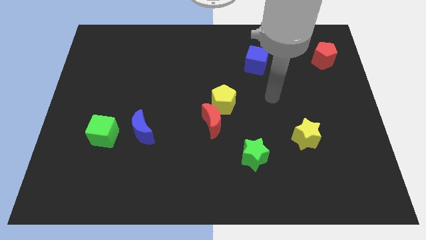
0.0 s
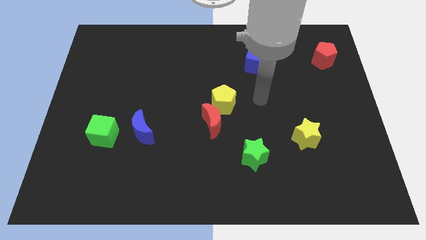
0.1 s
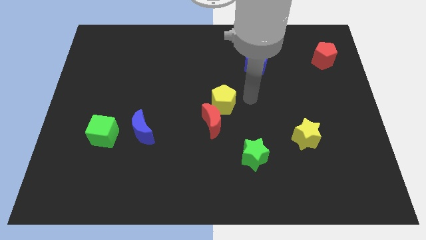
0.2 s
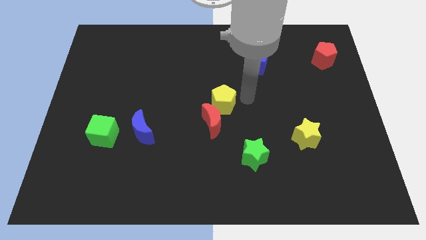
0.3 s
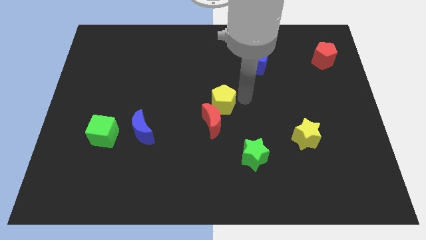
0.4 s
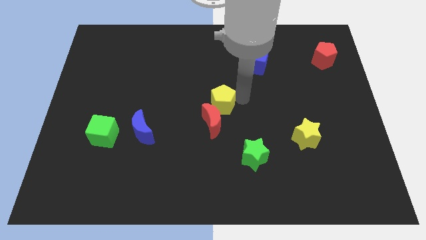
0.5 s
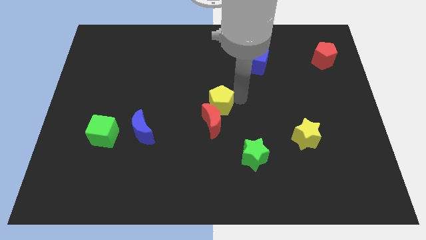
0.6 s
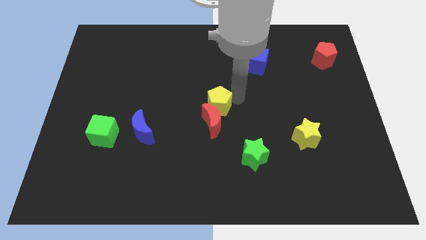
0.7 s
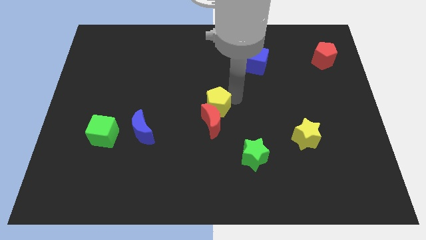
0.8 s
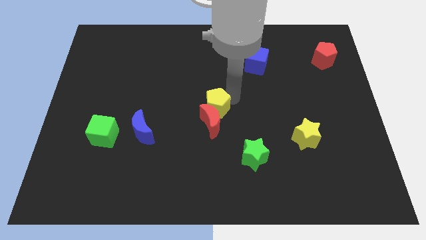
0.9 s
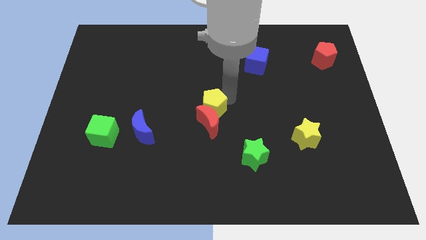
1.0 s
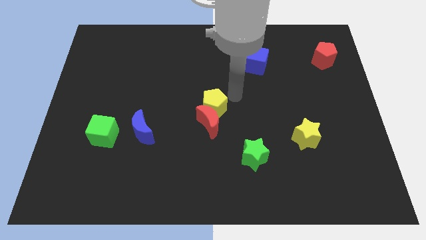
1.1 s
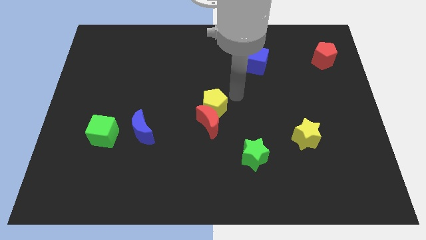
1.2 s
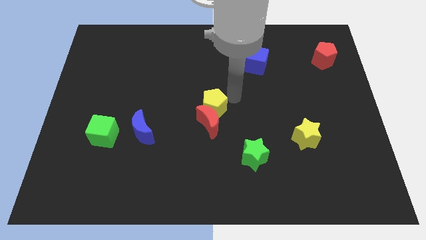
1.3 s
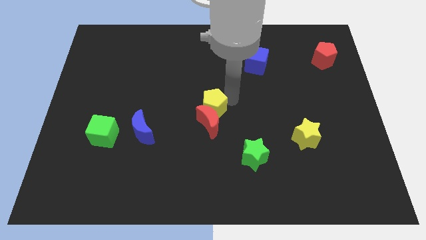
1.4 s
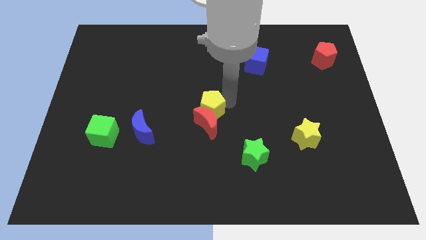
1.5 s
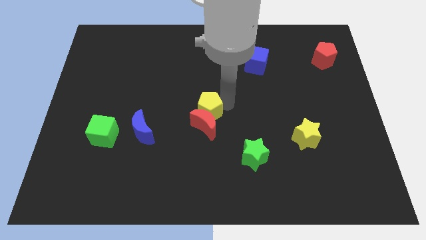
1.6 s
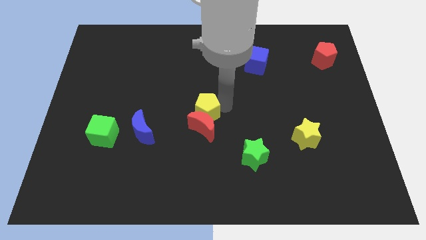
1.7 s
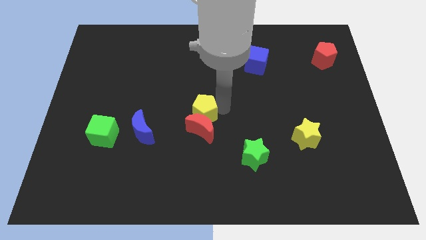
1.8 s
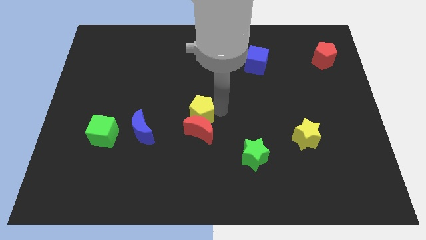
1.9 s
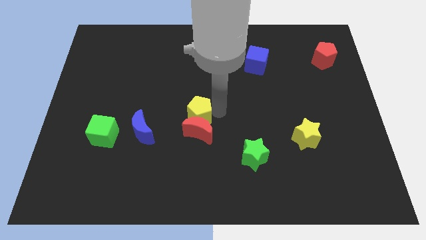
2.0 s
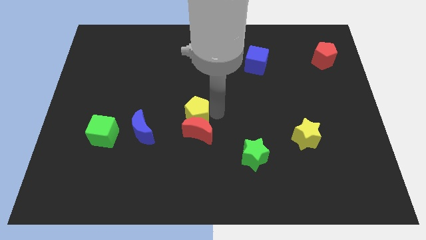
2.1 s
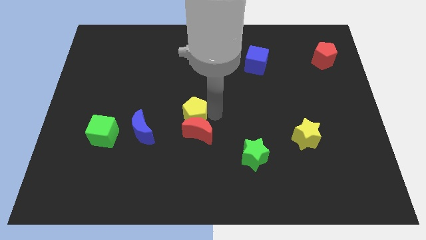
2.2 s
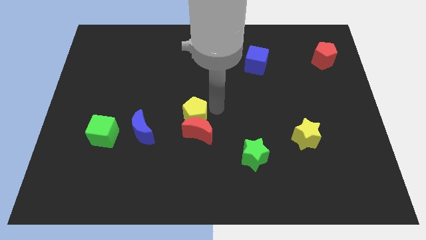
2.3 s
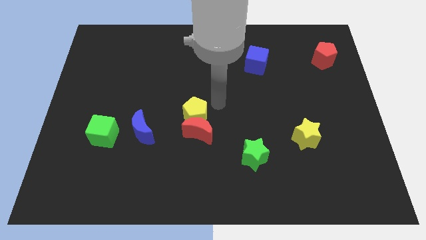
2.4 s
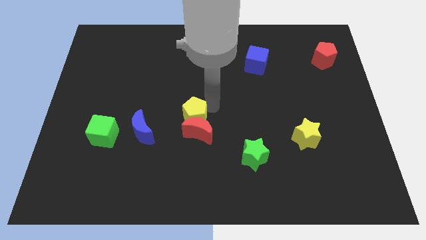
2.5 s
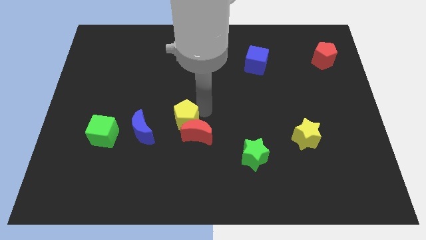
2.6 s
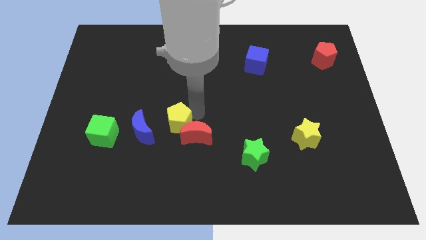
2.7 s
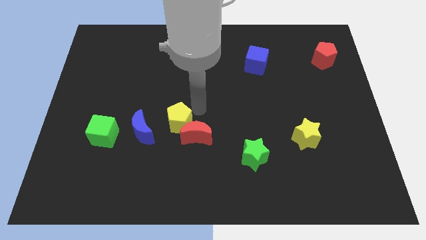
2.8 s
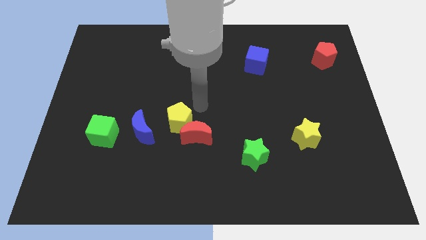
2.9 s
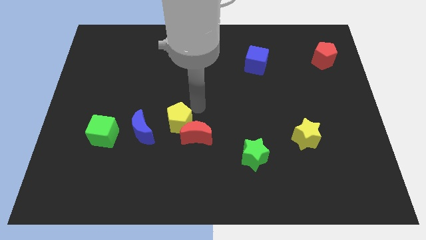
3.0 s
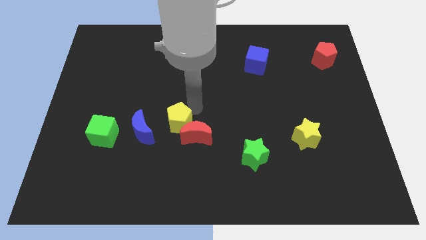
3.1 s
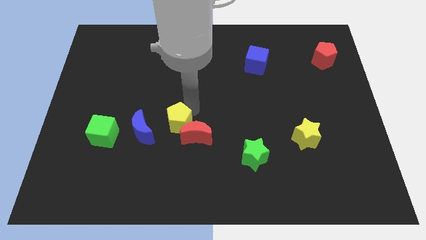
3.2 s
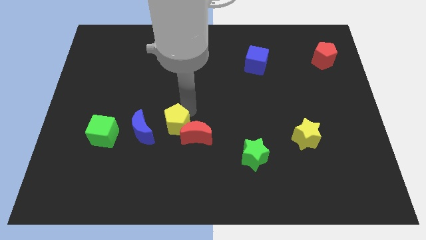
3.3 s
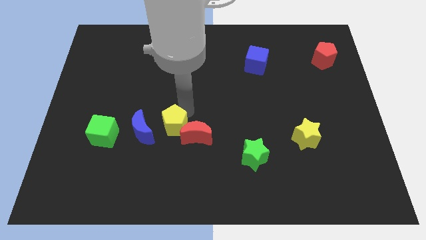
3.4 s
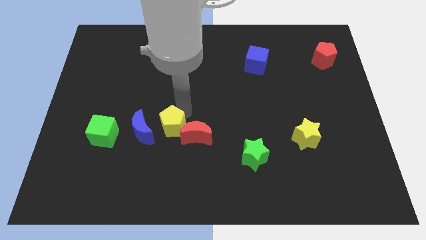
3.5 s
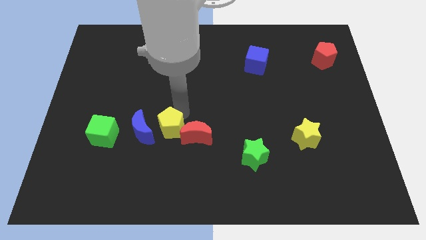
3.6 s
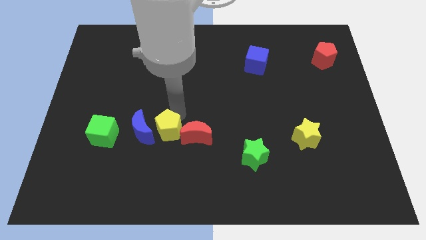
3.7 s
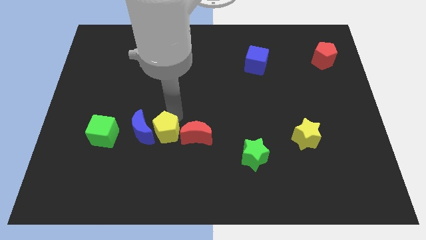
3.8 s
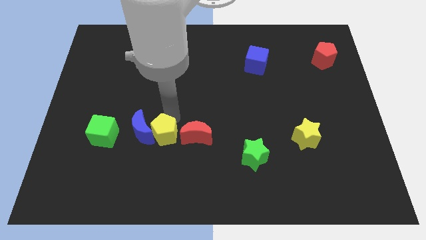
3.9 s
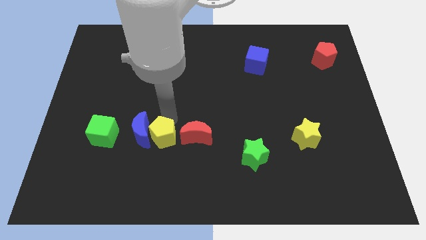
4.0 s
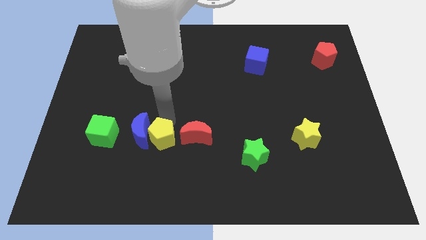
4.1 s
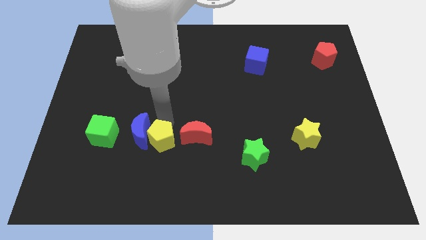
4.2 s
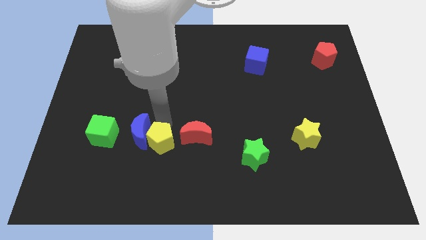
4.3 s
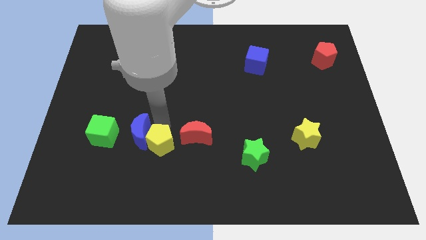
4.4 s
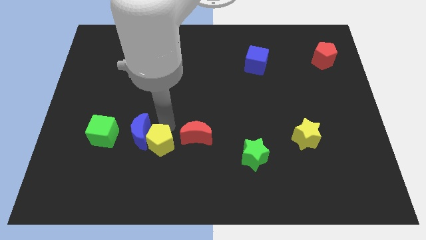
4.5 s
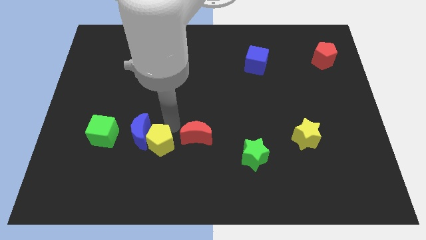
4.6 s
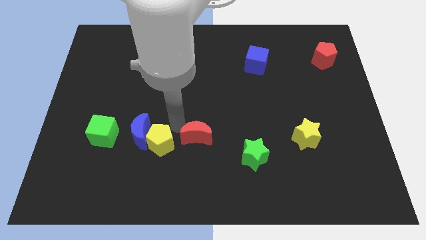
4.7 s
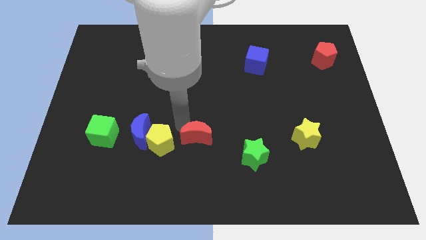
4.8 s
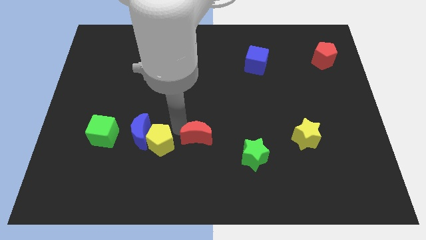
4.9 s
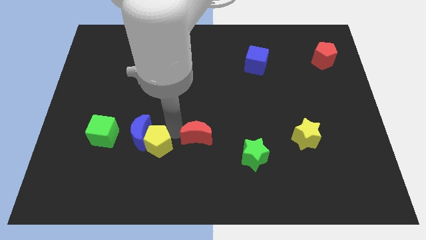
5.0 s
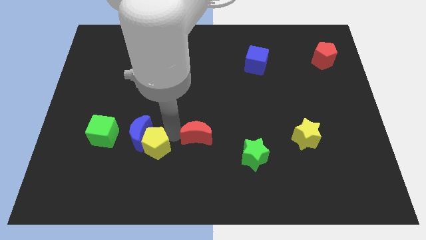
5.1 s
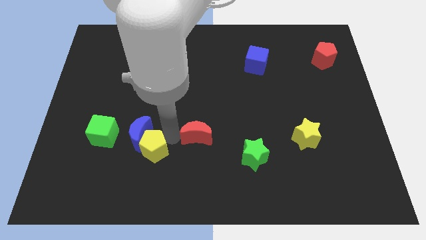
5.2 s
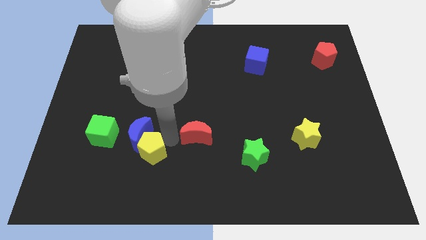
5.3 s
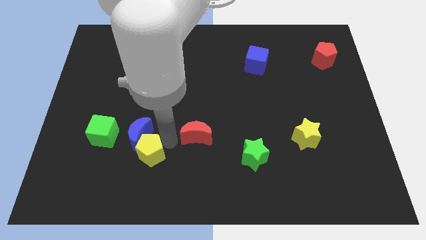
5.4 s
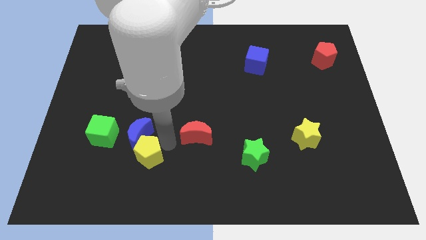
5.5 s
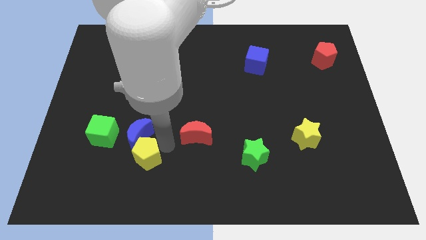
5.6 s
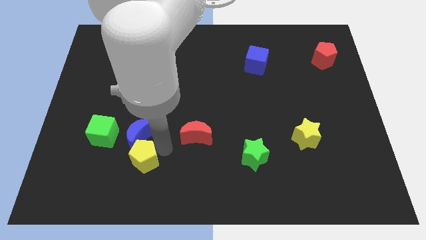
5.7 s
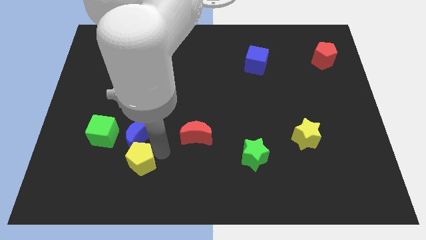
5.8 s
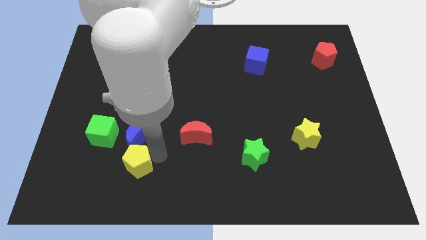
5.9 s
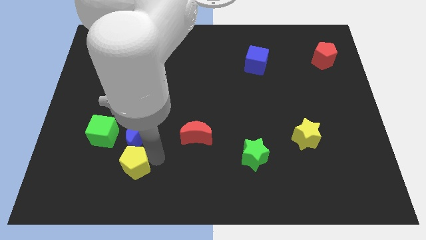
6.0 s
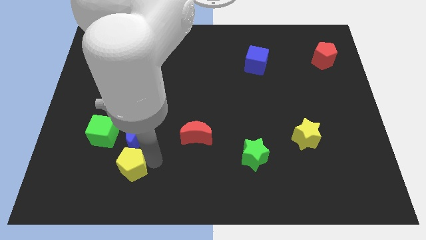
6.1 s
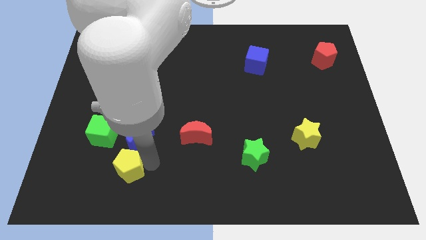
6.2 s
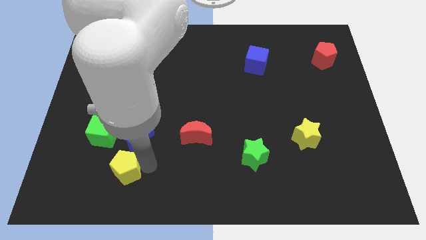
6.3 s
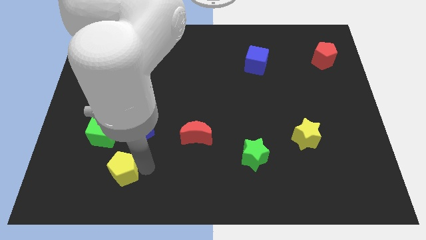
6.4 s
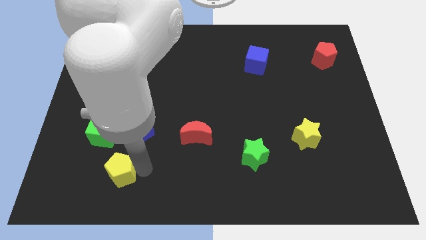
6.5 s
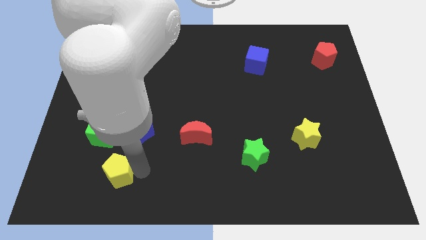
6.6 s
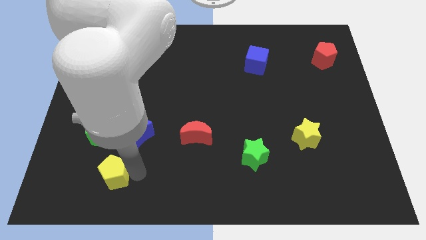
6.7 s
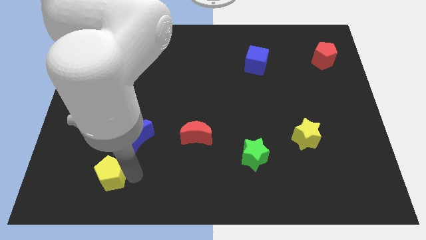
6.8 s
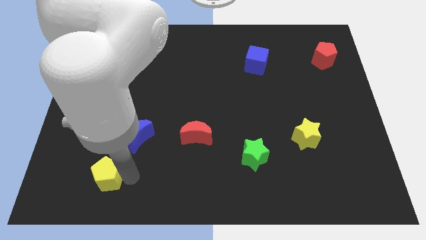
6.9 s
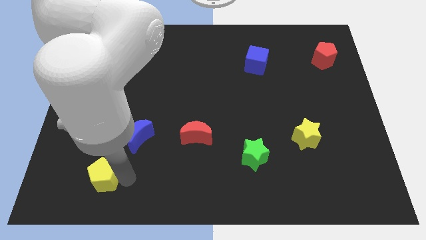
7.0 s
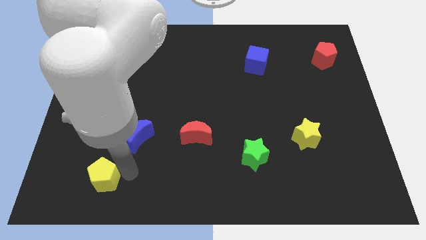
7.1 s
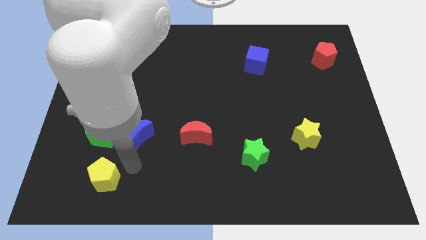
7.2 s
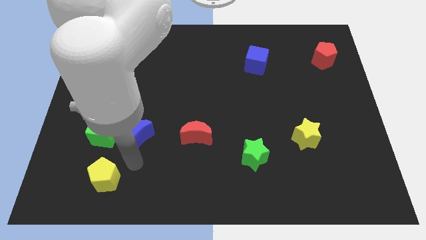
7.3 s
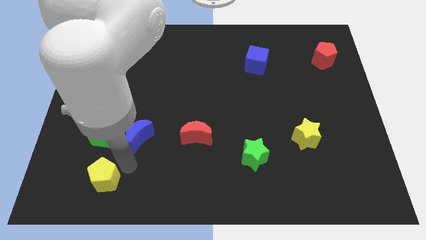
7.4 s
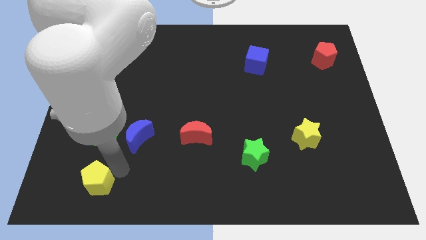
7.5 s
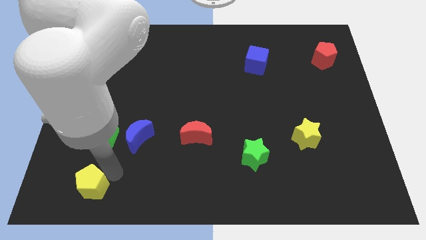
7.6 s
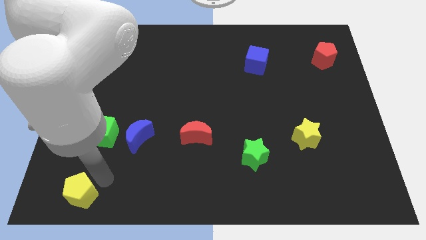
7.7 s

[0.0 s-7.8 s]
move the yellow pentagon to the bottom left

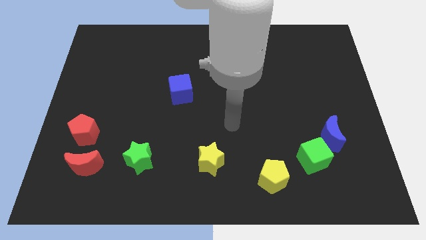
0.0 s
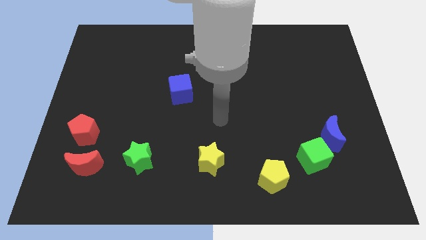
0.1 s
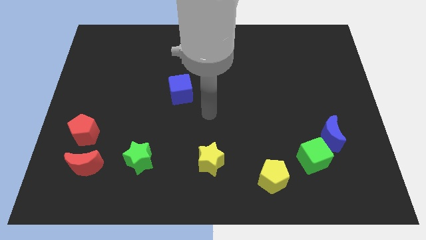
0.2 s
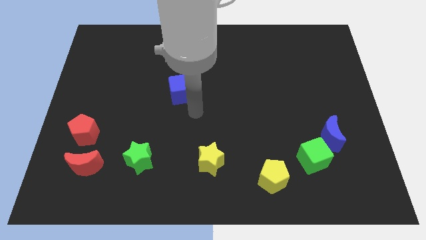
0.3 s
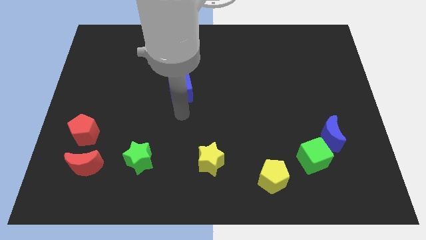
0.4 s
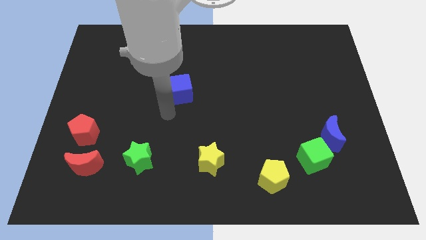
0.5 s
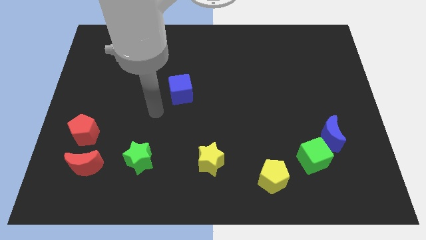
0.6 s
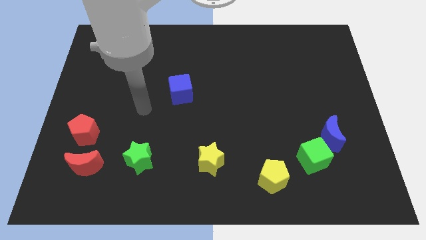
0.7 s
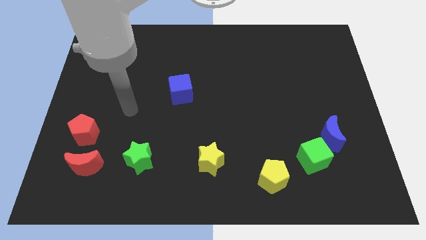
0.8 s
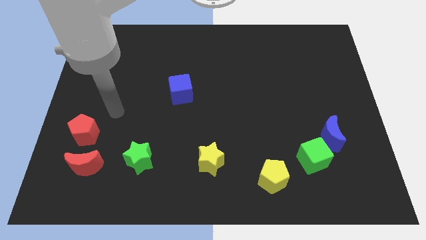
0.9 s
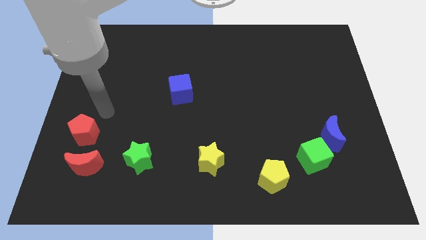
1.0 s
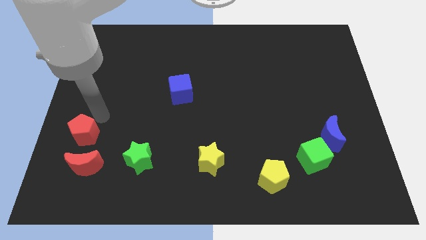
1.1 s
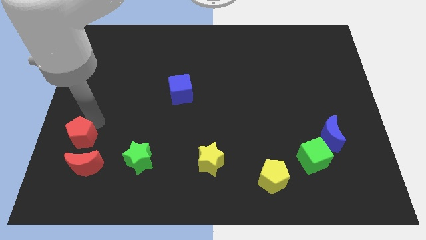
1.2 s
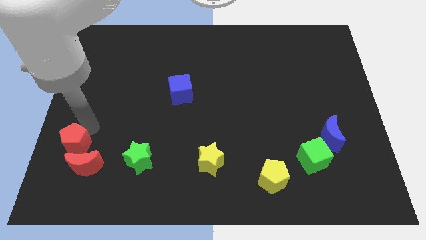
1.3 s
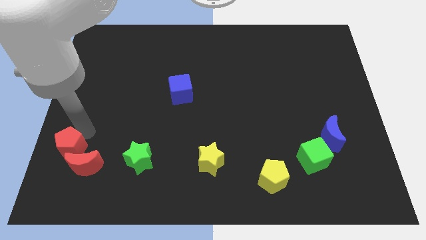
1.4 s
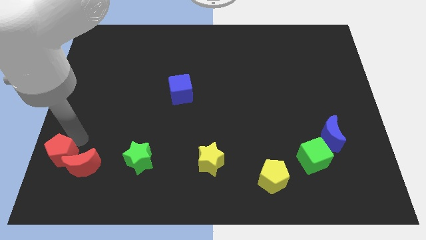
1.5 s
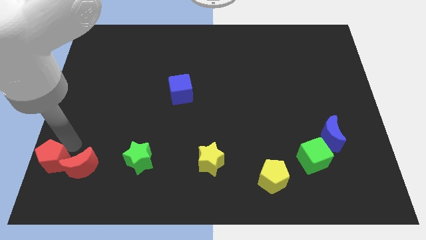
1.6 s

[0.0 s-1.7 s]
slide the red pentagon to the bottom left
